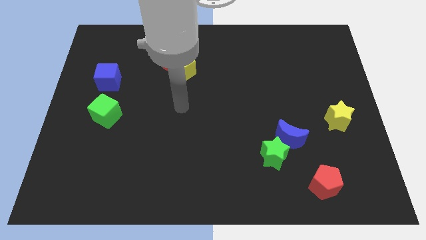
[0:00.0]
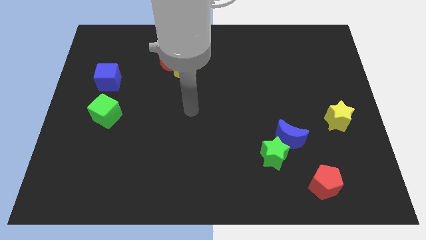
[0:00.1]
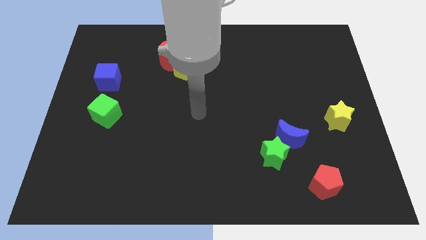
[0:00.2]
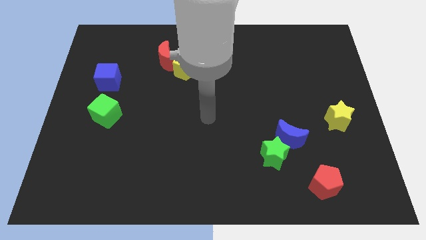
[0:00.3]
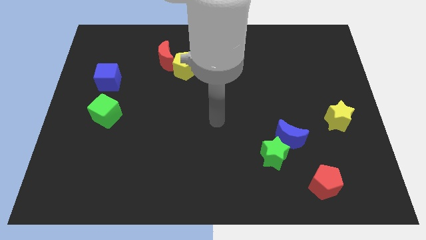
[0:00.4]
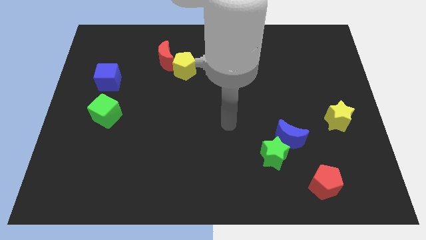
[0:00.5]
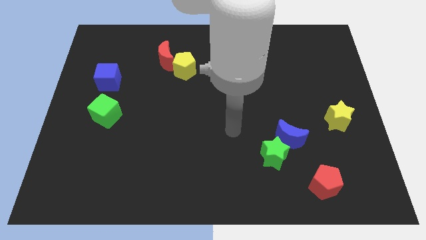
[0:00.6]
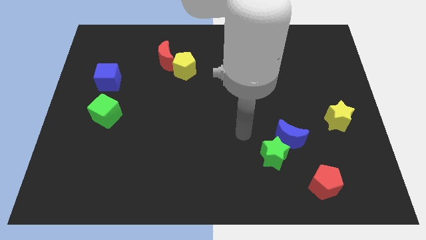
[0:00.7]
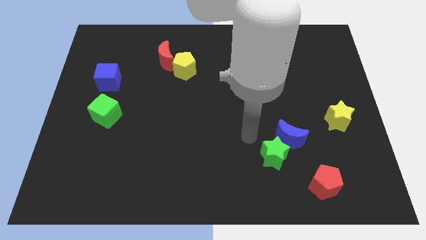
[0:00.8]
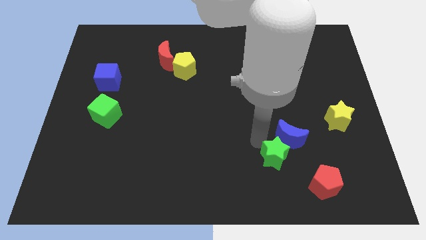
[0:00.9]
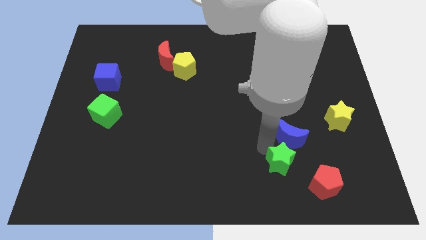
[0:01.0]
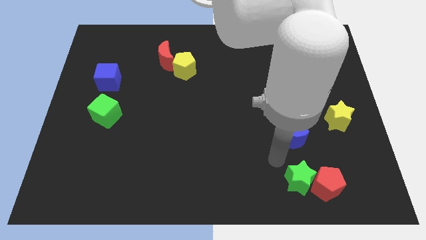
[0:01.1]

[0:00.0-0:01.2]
move the blue moon away from the green star

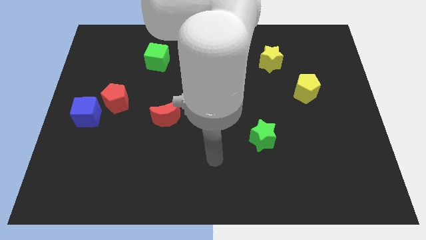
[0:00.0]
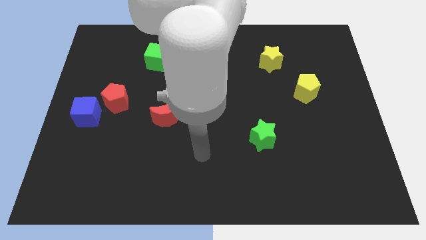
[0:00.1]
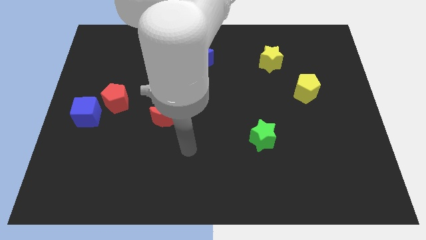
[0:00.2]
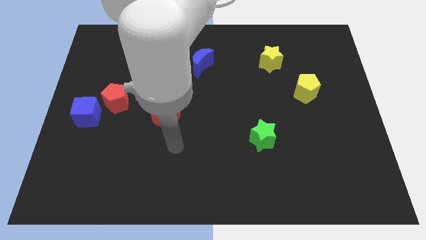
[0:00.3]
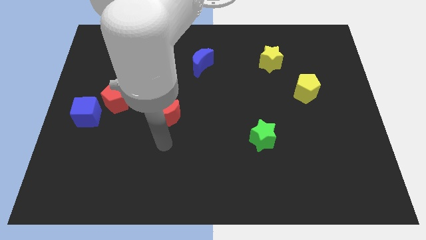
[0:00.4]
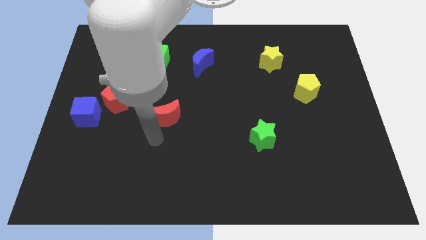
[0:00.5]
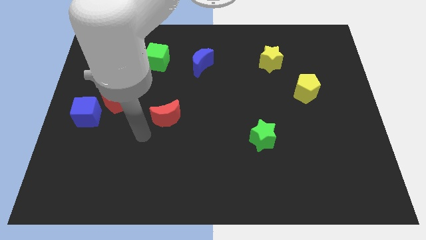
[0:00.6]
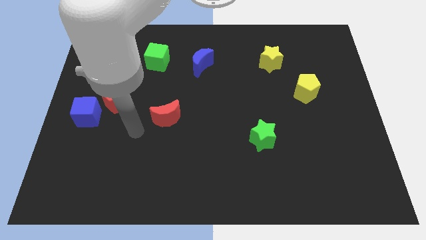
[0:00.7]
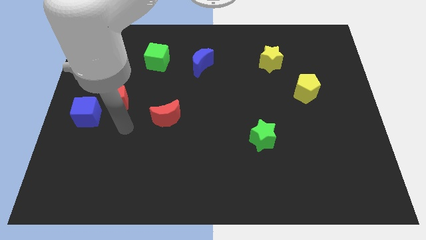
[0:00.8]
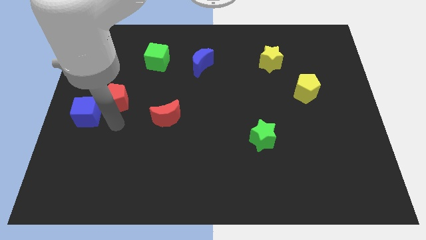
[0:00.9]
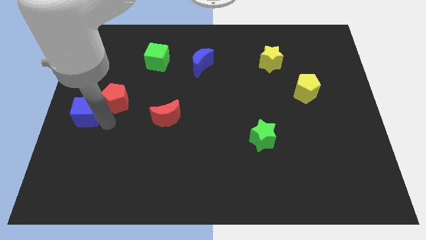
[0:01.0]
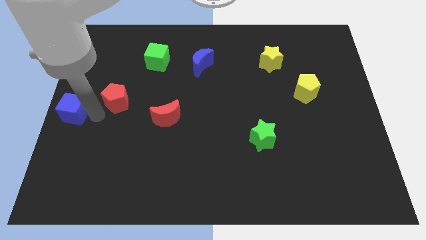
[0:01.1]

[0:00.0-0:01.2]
separate the red pentagon from the blue cube

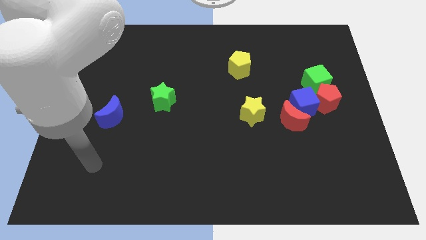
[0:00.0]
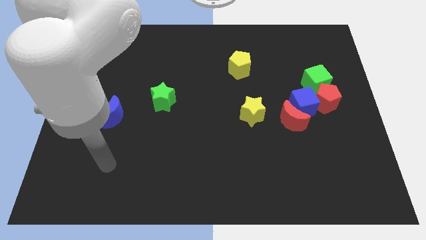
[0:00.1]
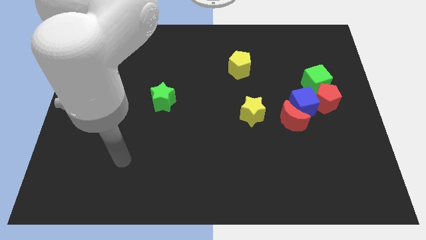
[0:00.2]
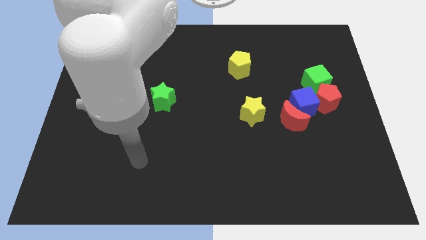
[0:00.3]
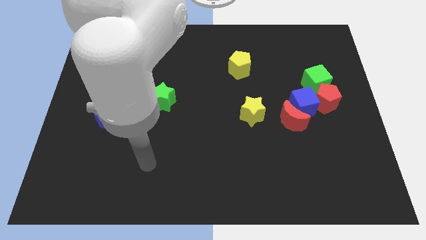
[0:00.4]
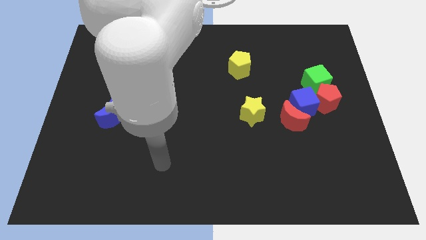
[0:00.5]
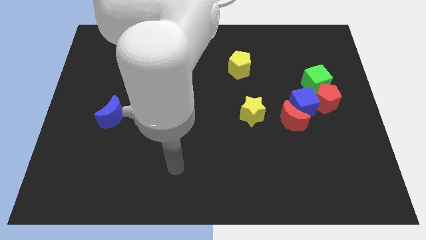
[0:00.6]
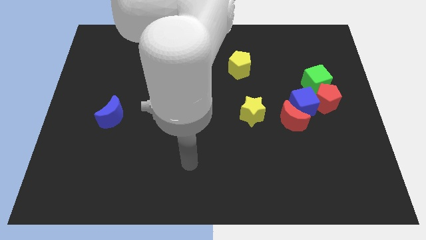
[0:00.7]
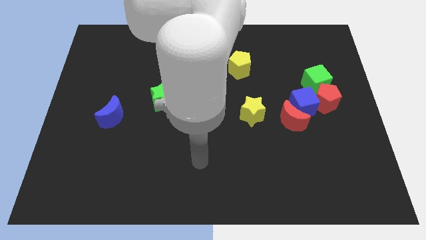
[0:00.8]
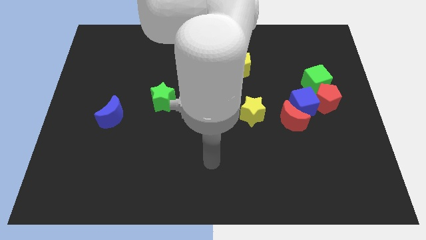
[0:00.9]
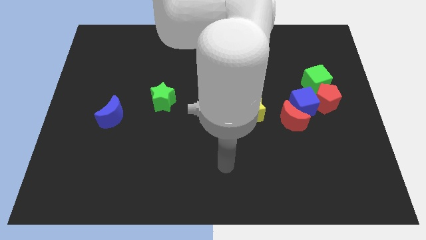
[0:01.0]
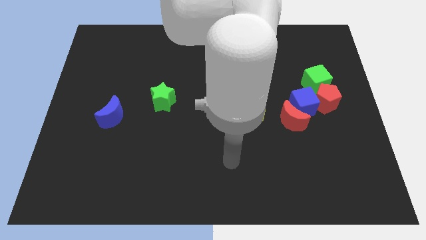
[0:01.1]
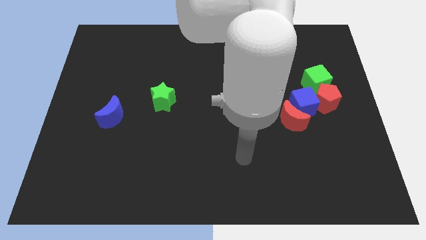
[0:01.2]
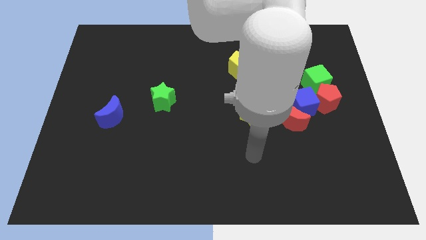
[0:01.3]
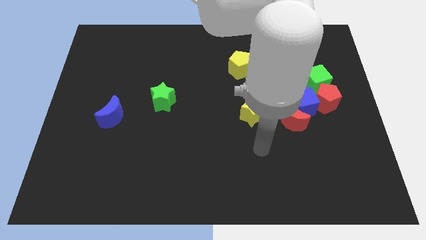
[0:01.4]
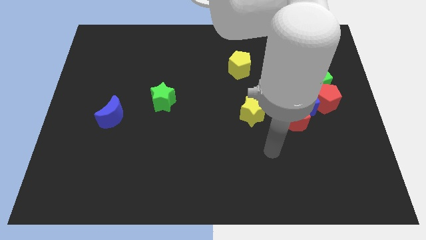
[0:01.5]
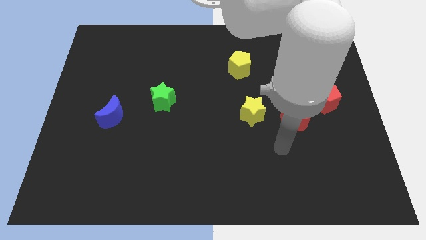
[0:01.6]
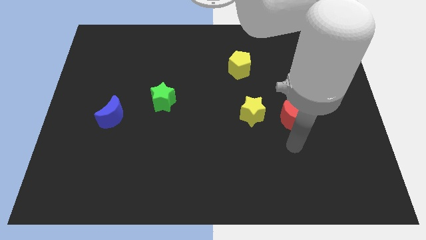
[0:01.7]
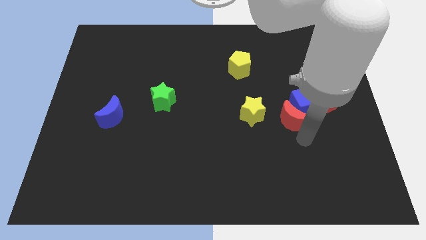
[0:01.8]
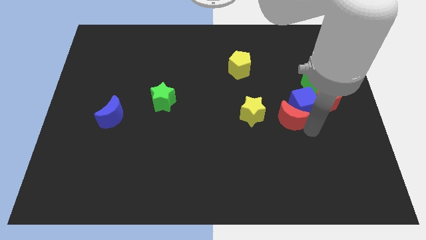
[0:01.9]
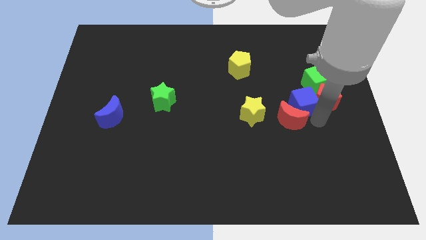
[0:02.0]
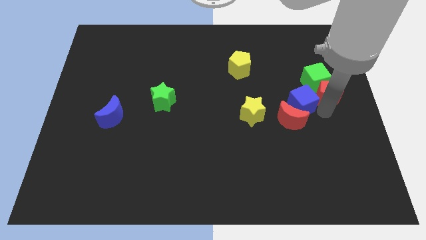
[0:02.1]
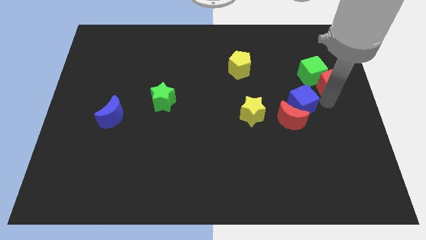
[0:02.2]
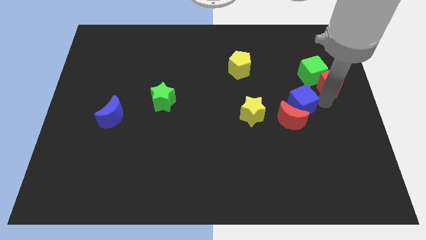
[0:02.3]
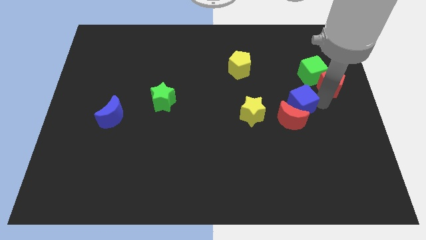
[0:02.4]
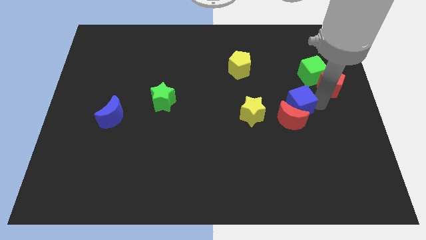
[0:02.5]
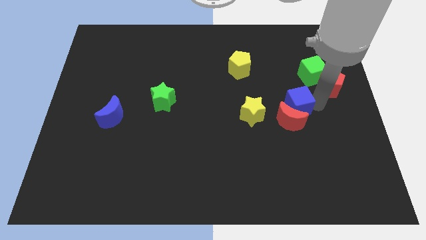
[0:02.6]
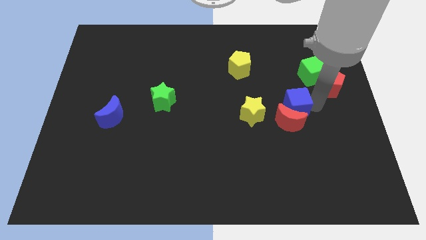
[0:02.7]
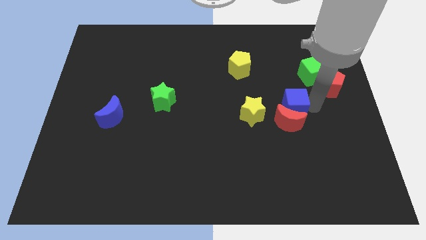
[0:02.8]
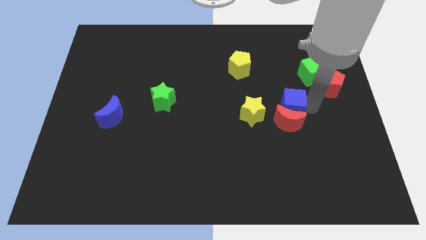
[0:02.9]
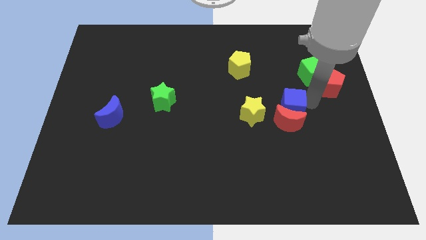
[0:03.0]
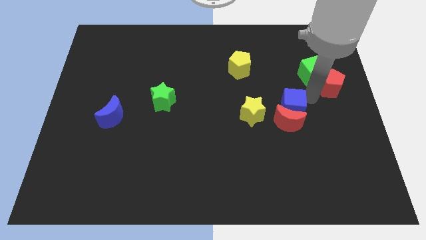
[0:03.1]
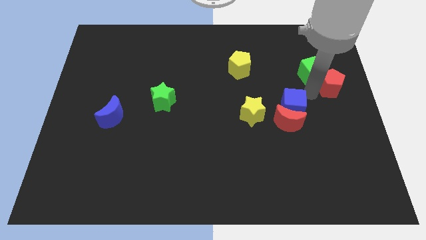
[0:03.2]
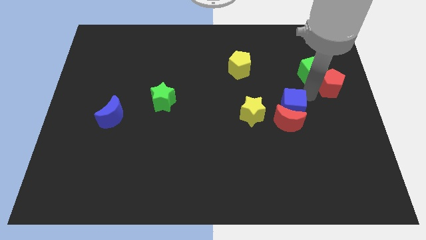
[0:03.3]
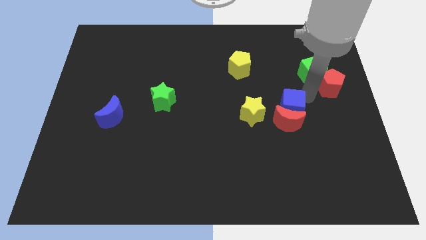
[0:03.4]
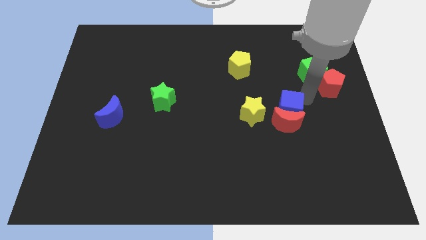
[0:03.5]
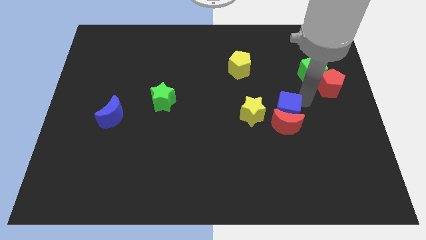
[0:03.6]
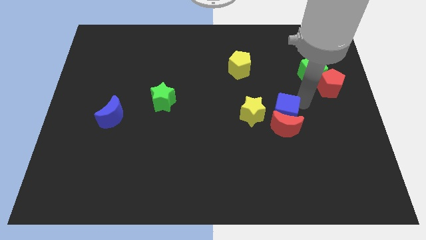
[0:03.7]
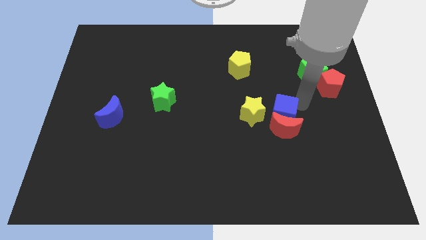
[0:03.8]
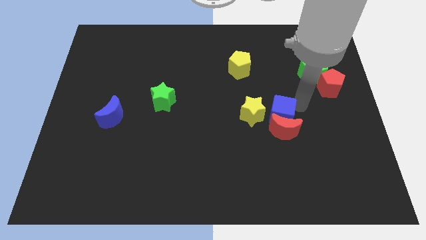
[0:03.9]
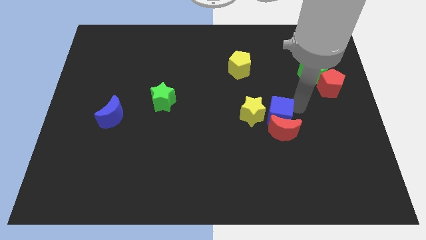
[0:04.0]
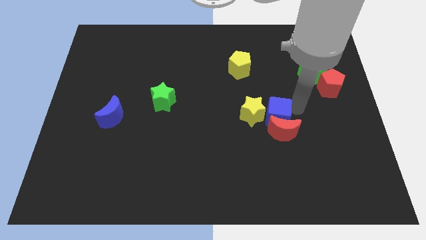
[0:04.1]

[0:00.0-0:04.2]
move the blue cube away from the red moon, red pentagon, and green cube

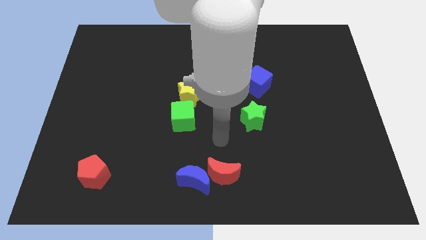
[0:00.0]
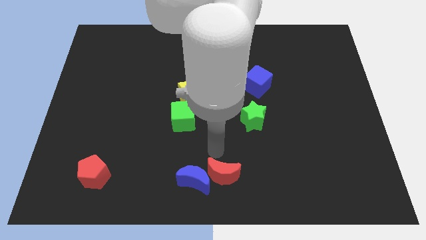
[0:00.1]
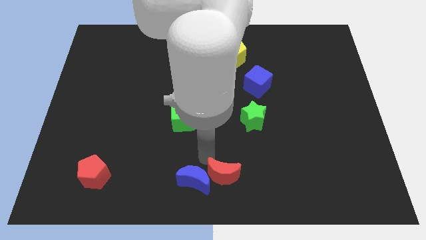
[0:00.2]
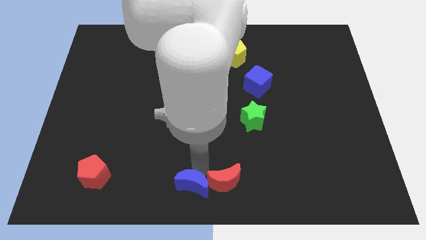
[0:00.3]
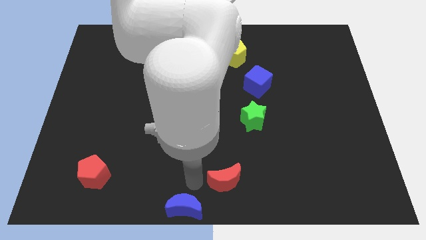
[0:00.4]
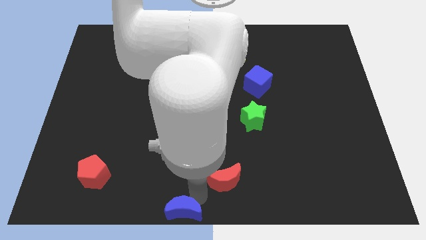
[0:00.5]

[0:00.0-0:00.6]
move the red moon away from the blue moon

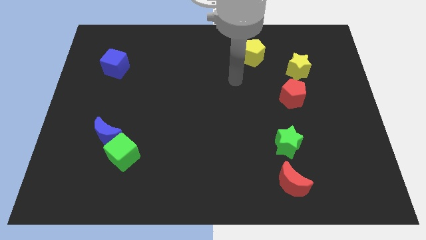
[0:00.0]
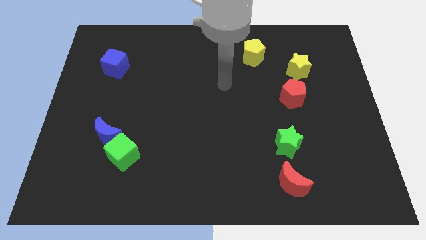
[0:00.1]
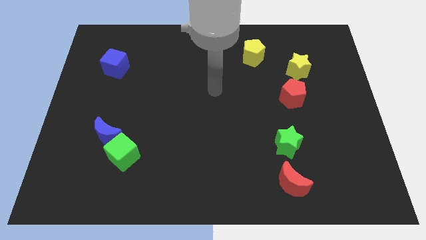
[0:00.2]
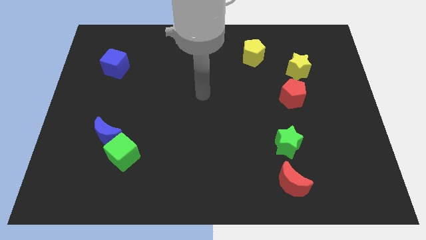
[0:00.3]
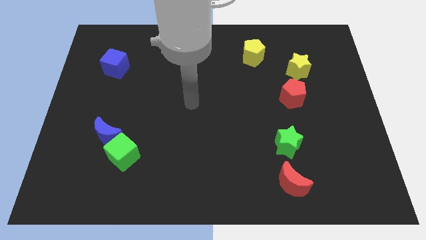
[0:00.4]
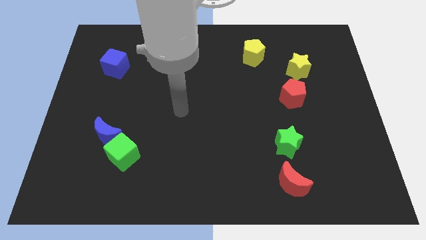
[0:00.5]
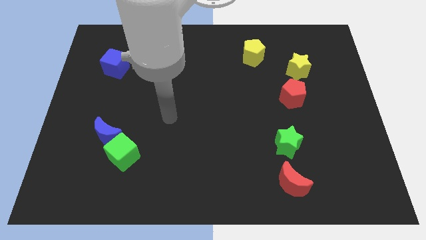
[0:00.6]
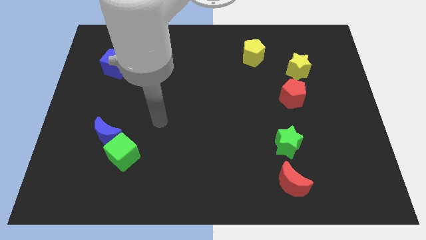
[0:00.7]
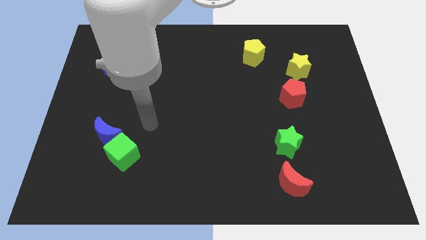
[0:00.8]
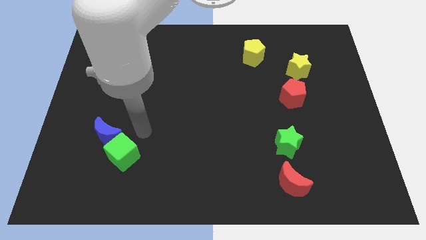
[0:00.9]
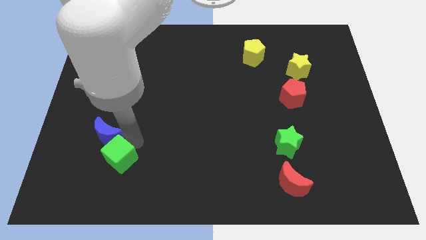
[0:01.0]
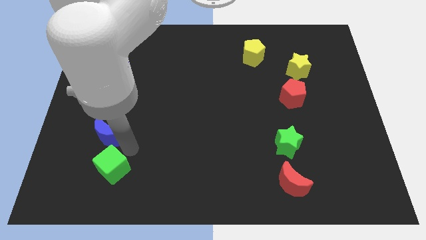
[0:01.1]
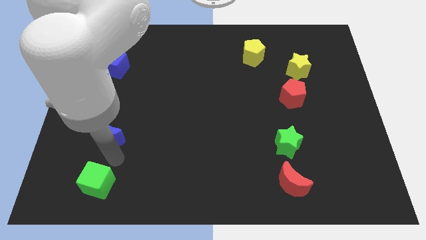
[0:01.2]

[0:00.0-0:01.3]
separate the blue moon from the green cube

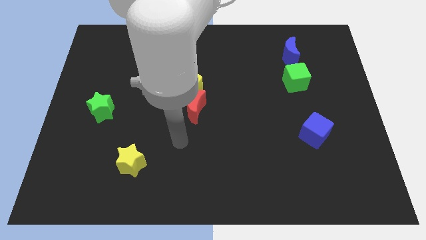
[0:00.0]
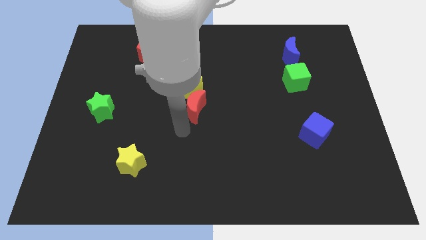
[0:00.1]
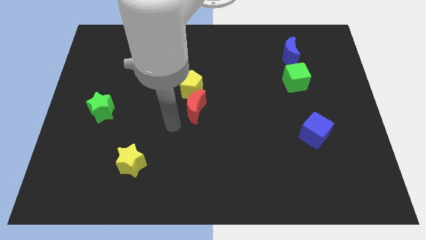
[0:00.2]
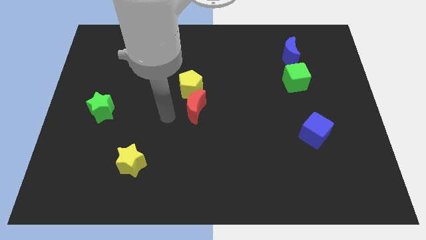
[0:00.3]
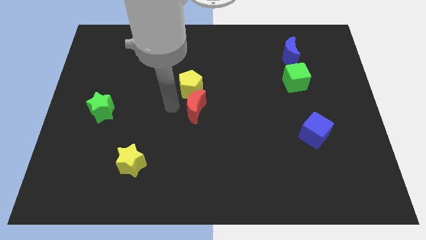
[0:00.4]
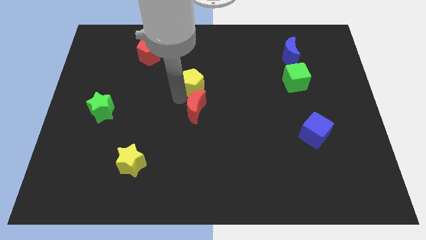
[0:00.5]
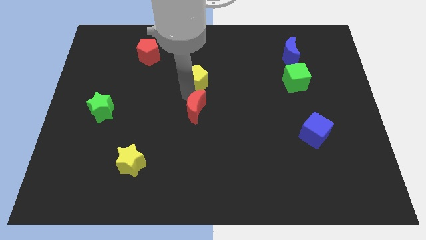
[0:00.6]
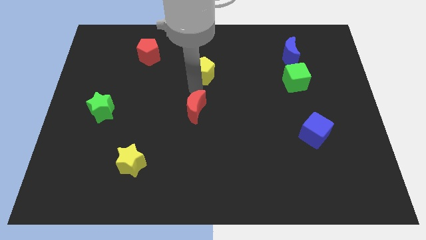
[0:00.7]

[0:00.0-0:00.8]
separate the red moon from the yellow pentagon
